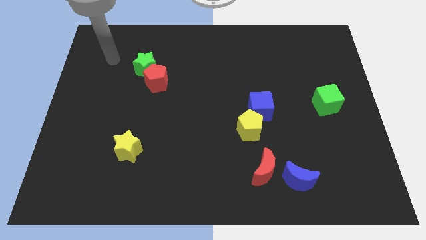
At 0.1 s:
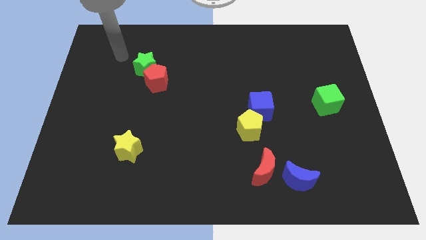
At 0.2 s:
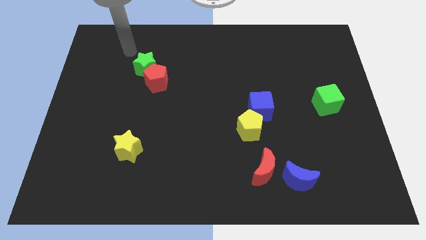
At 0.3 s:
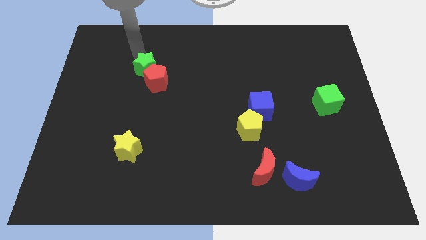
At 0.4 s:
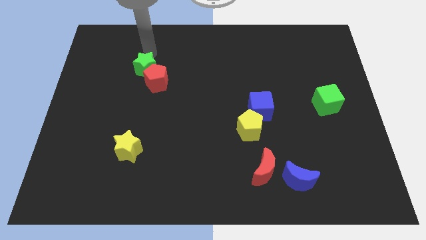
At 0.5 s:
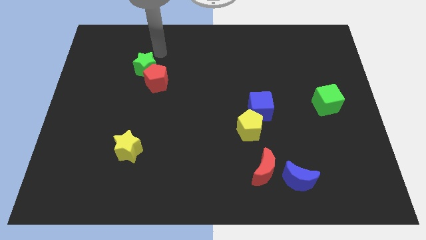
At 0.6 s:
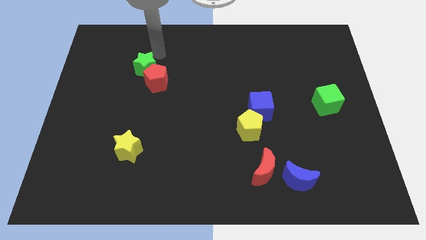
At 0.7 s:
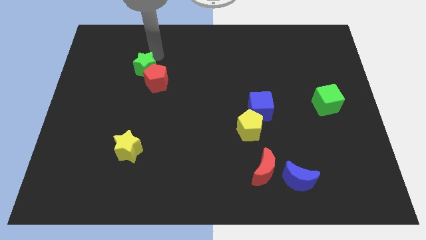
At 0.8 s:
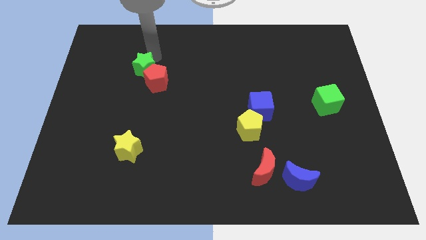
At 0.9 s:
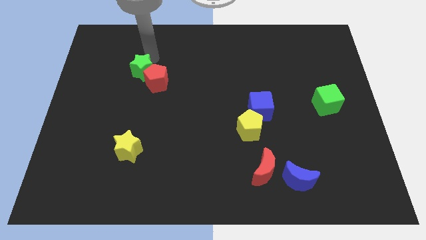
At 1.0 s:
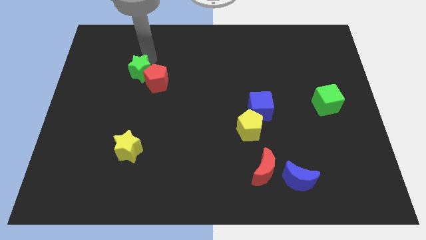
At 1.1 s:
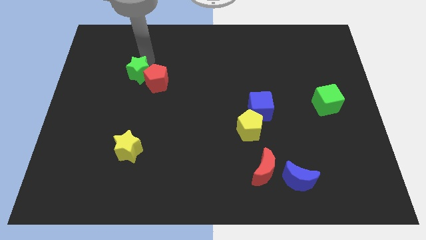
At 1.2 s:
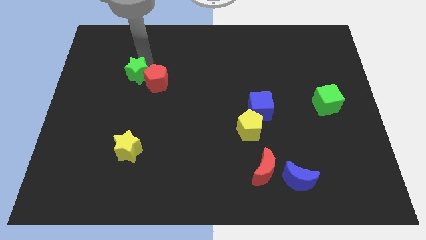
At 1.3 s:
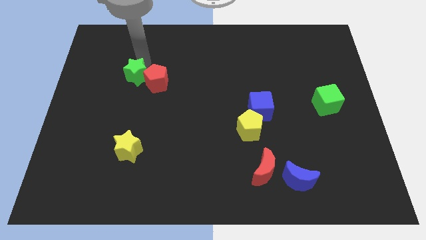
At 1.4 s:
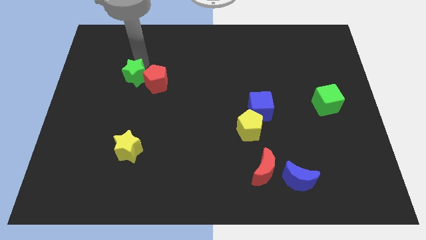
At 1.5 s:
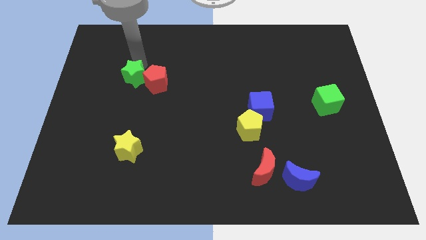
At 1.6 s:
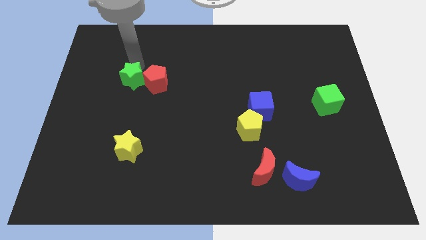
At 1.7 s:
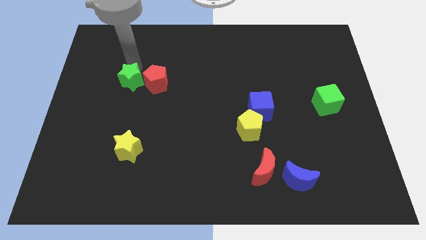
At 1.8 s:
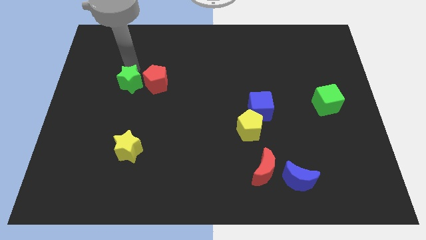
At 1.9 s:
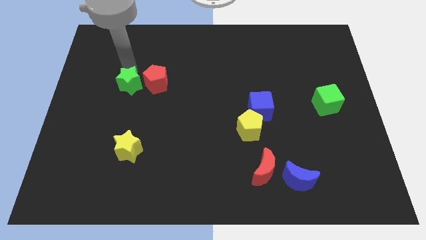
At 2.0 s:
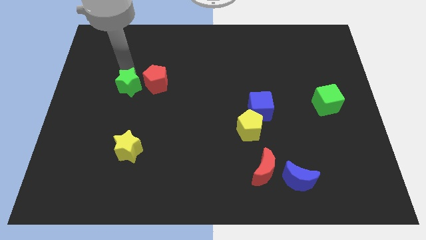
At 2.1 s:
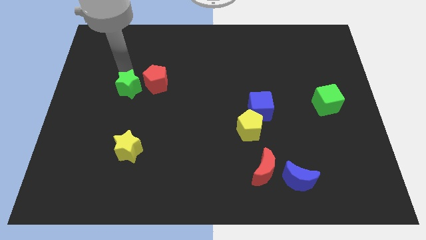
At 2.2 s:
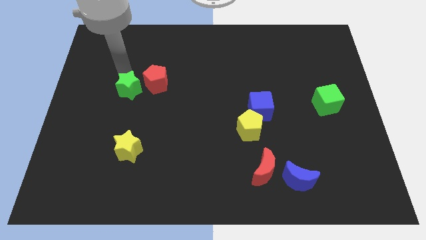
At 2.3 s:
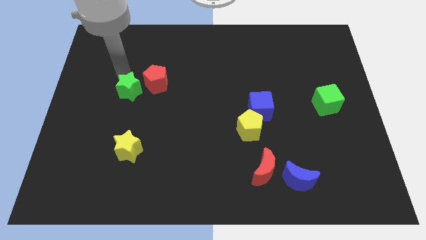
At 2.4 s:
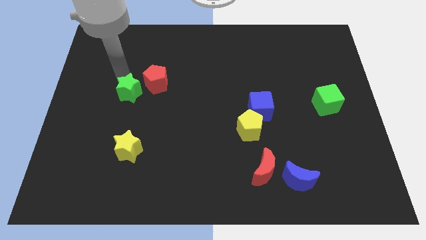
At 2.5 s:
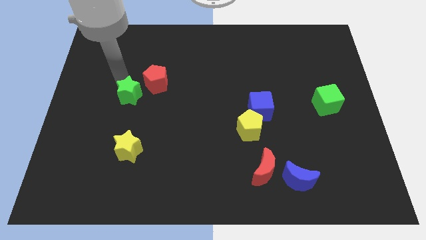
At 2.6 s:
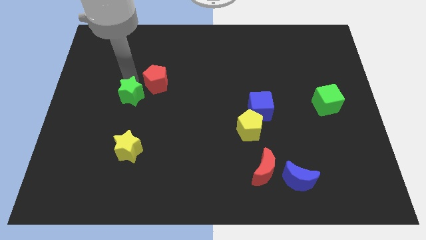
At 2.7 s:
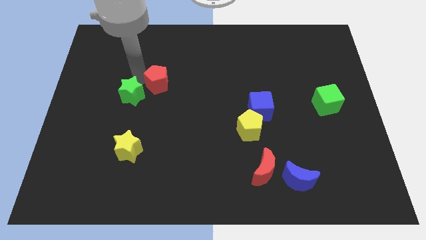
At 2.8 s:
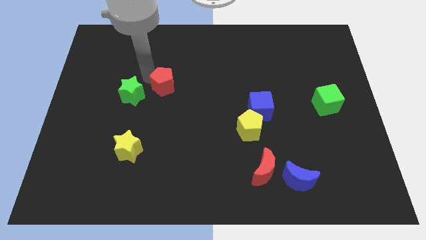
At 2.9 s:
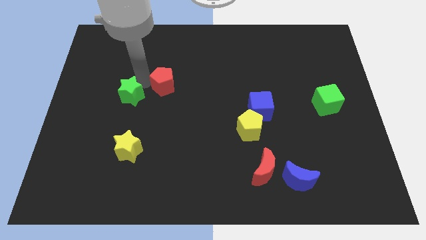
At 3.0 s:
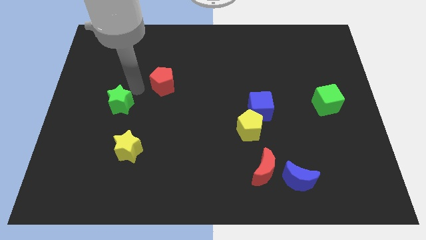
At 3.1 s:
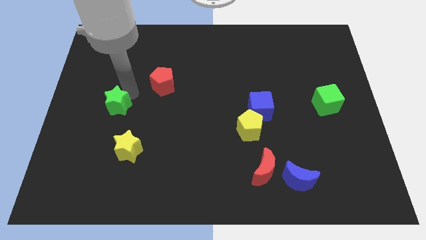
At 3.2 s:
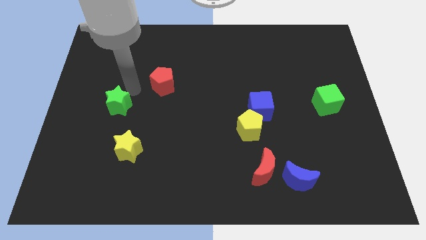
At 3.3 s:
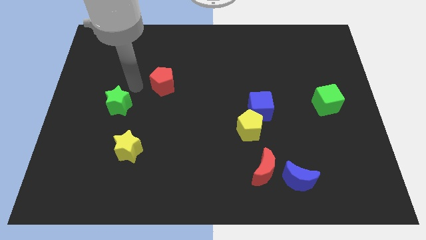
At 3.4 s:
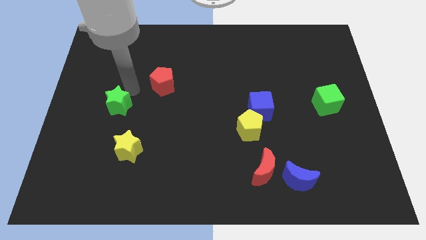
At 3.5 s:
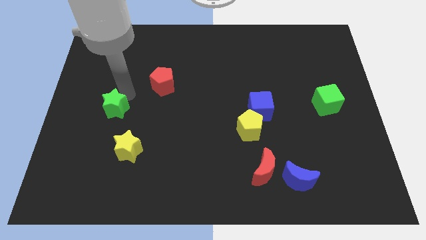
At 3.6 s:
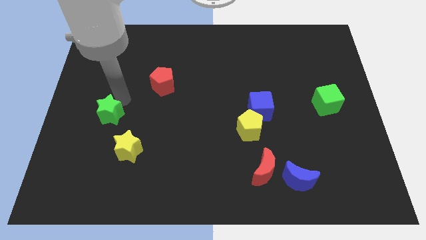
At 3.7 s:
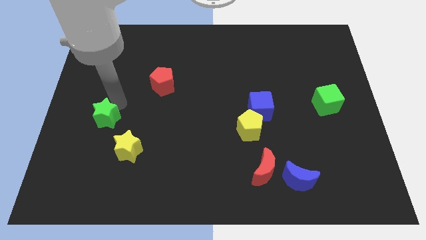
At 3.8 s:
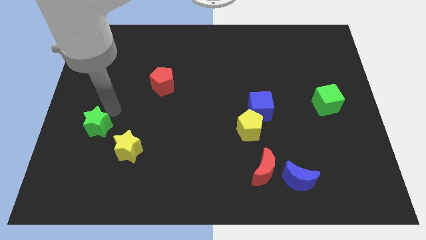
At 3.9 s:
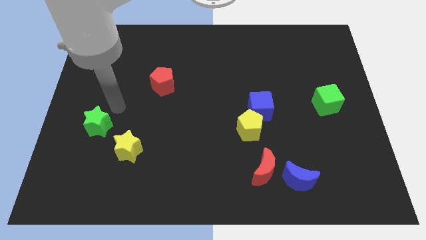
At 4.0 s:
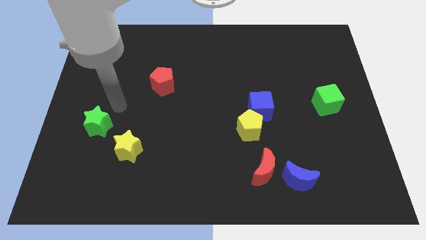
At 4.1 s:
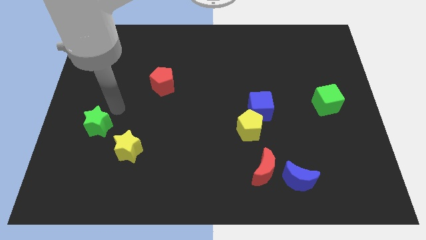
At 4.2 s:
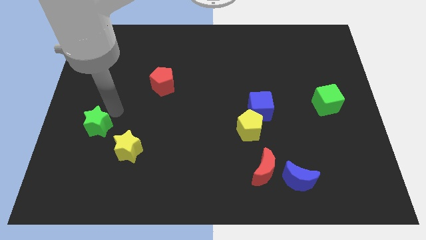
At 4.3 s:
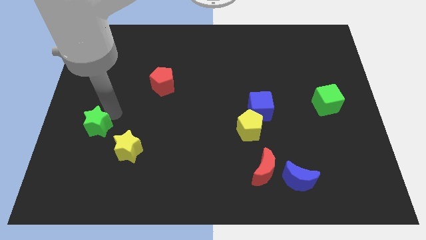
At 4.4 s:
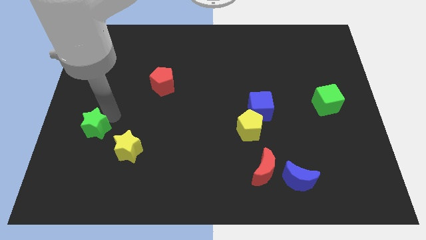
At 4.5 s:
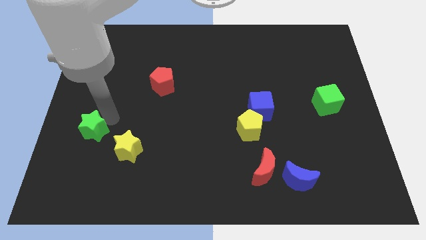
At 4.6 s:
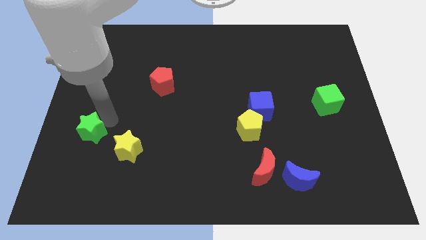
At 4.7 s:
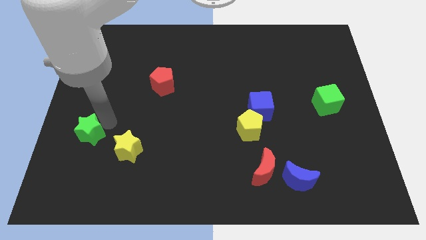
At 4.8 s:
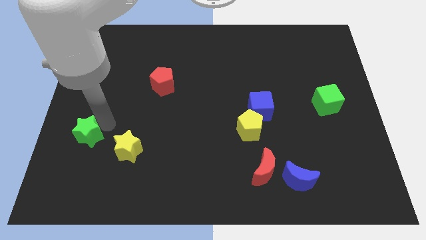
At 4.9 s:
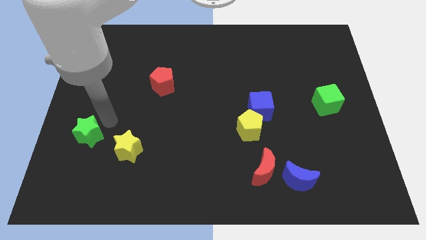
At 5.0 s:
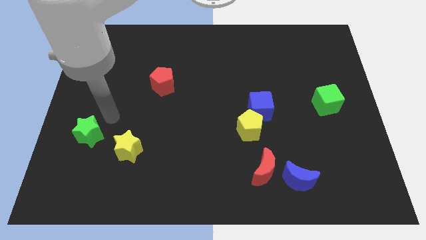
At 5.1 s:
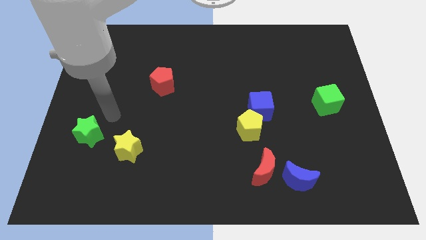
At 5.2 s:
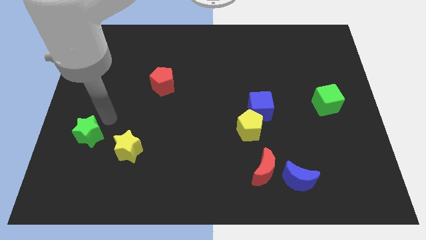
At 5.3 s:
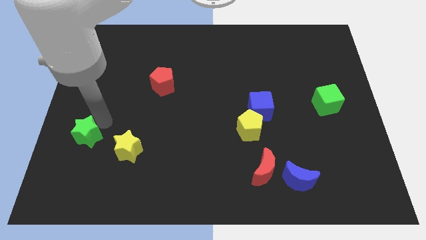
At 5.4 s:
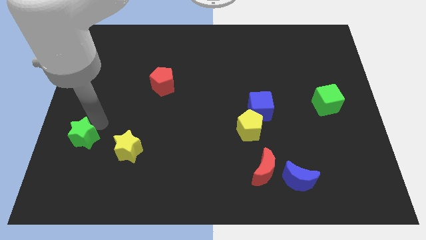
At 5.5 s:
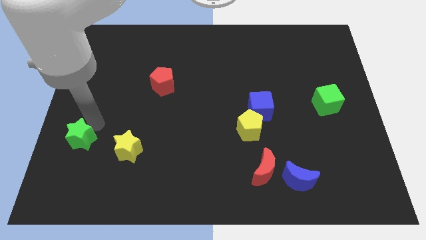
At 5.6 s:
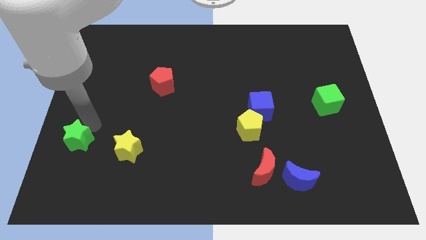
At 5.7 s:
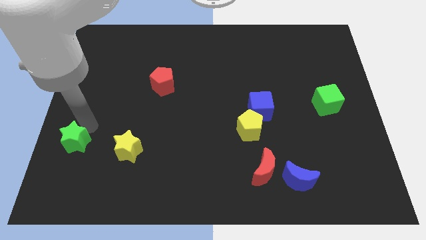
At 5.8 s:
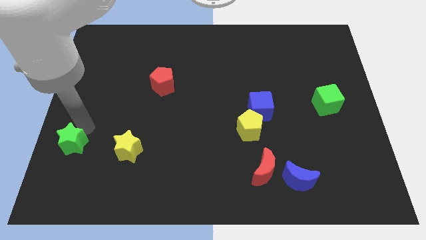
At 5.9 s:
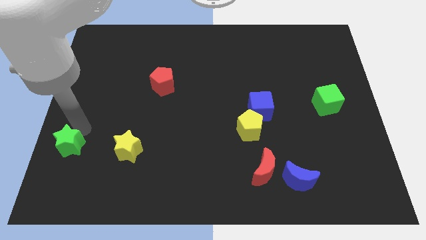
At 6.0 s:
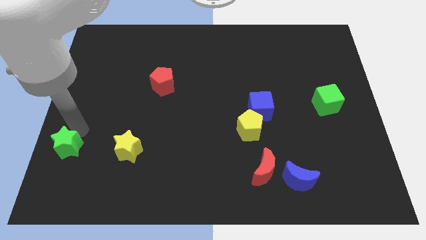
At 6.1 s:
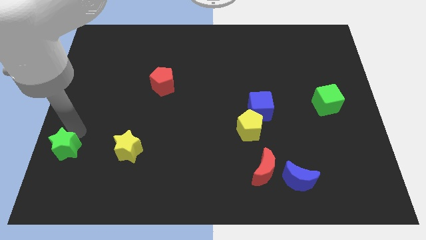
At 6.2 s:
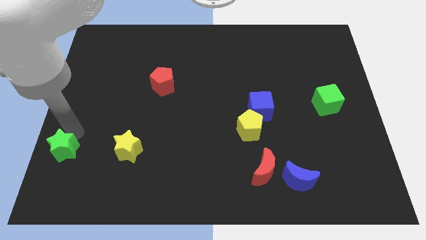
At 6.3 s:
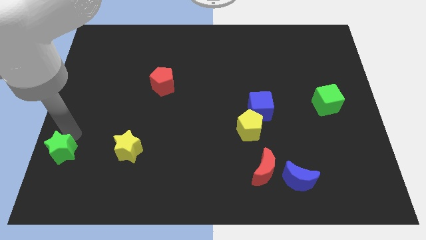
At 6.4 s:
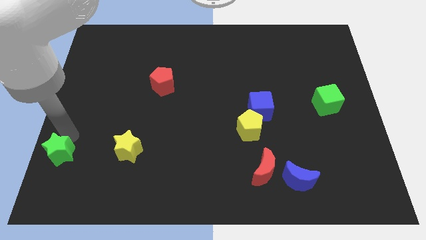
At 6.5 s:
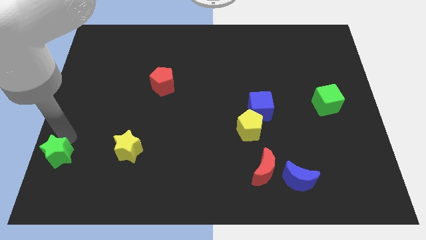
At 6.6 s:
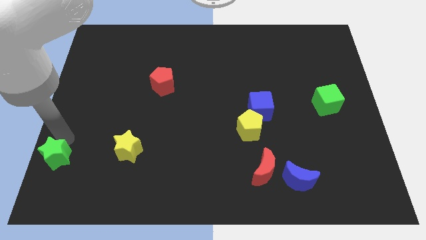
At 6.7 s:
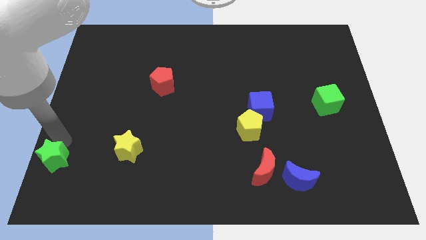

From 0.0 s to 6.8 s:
push the green star to the bottom left
